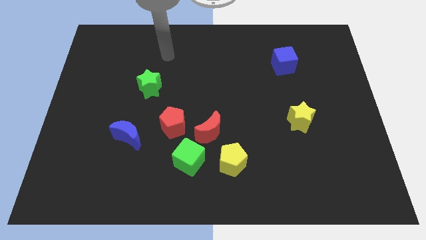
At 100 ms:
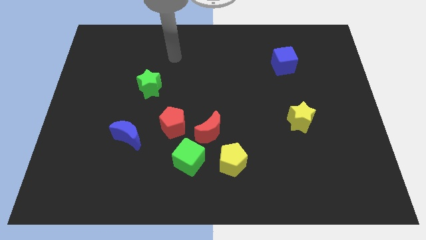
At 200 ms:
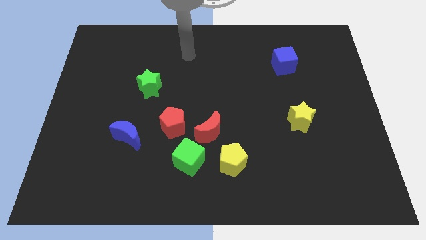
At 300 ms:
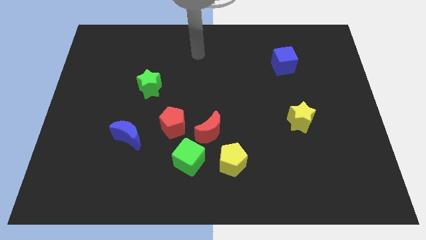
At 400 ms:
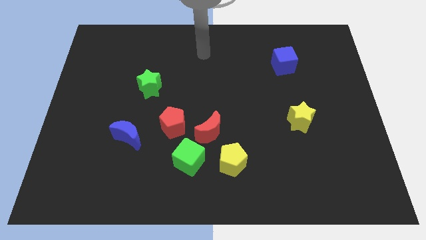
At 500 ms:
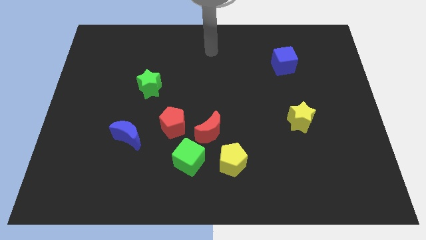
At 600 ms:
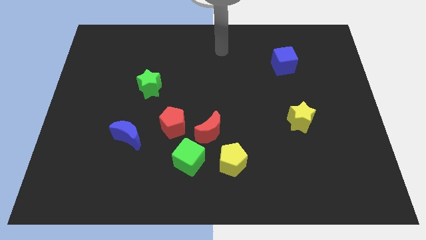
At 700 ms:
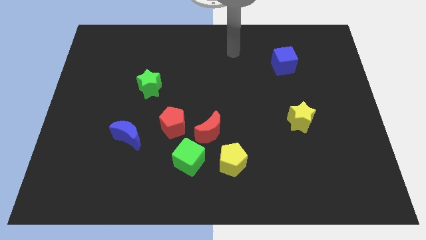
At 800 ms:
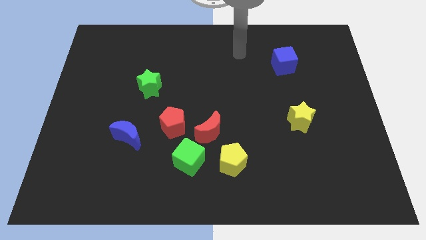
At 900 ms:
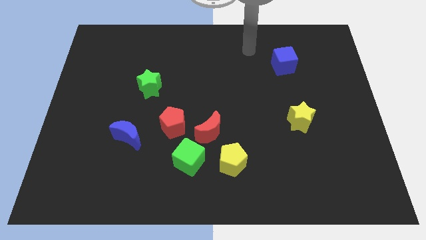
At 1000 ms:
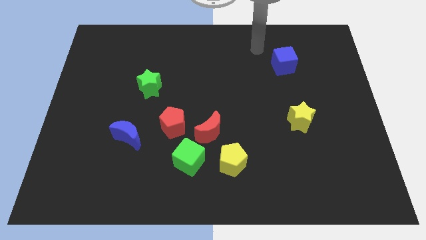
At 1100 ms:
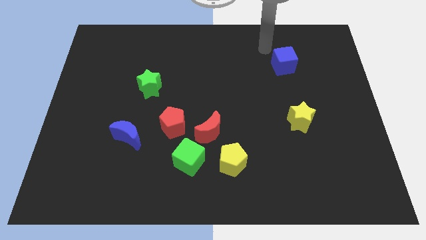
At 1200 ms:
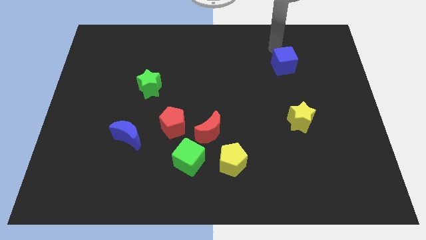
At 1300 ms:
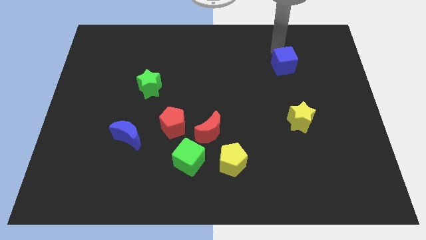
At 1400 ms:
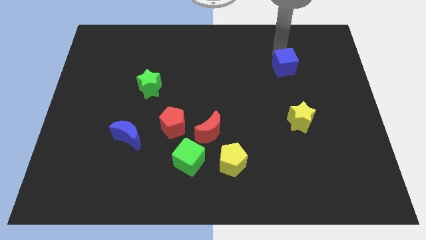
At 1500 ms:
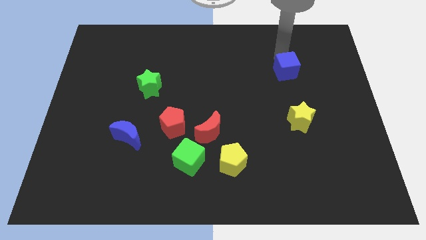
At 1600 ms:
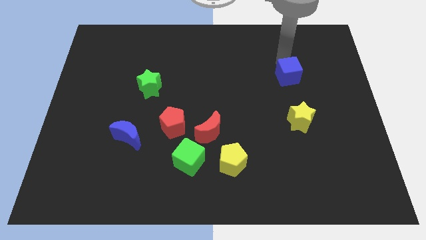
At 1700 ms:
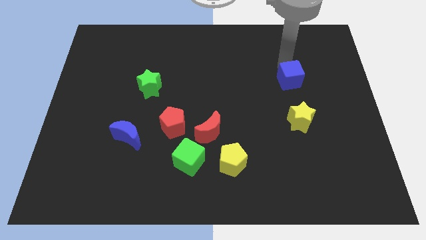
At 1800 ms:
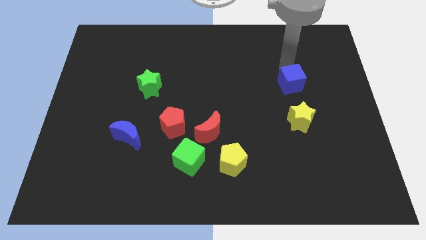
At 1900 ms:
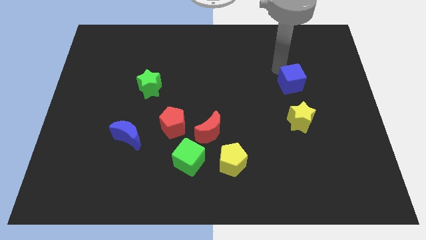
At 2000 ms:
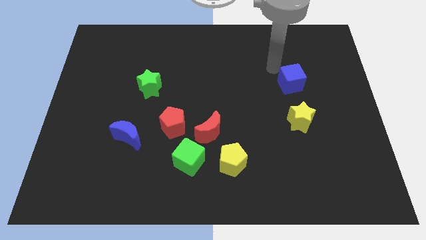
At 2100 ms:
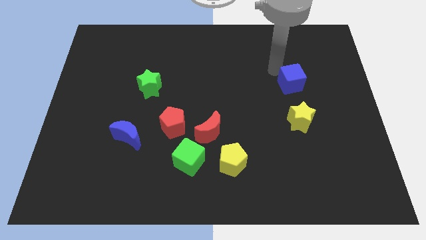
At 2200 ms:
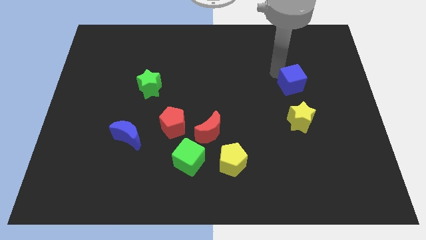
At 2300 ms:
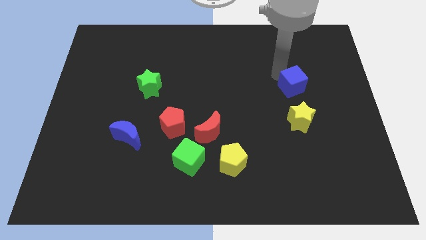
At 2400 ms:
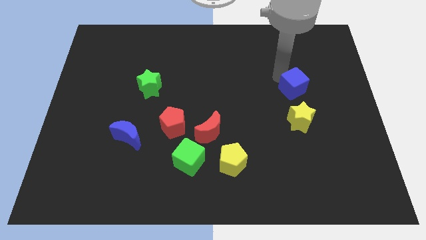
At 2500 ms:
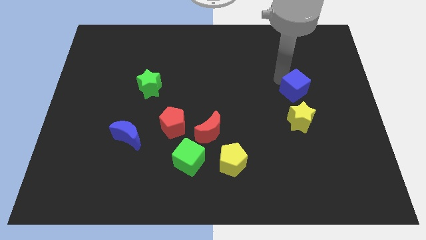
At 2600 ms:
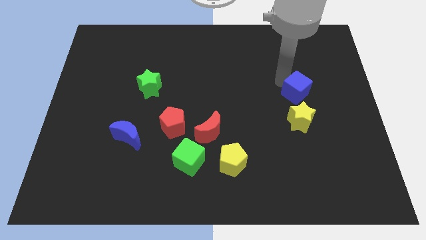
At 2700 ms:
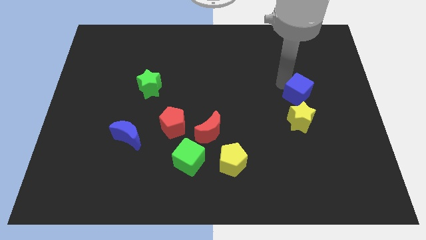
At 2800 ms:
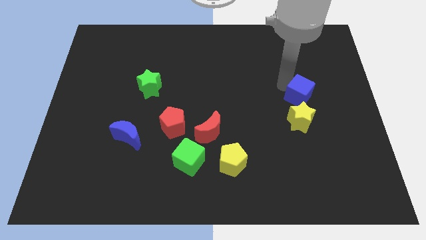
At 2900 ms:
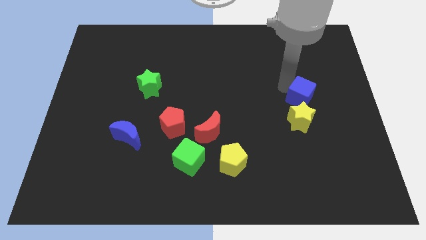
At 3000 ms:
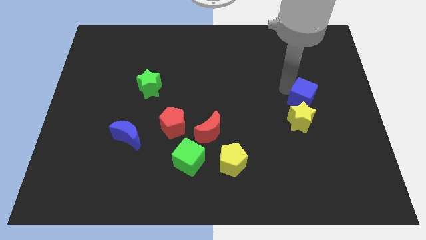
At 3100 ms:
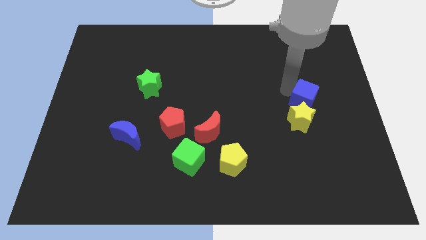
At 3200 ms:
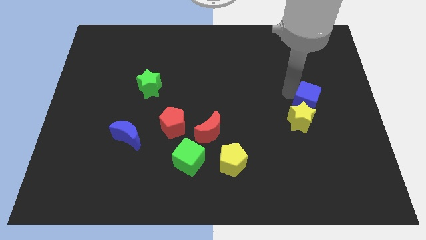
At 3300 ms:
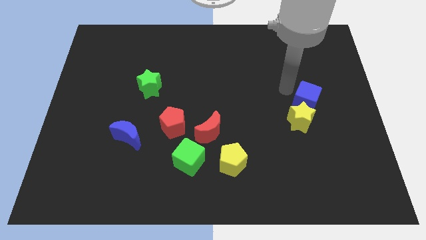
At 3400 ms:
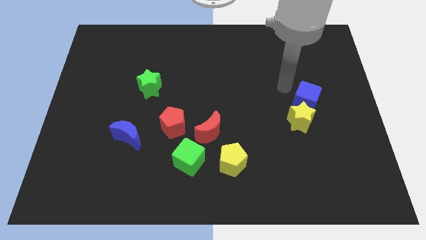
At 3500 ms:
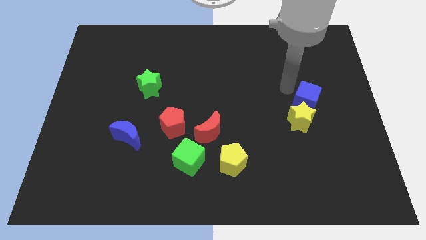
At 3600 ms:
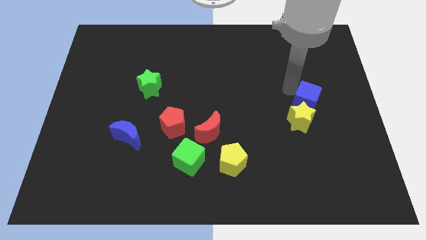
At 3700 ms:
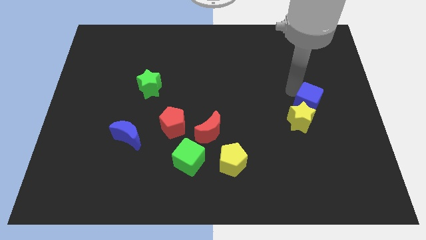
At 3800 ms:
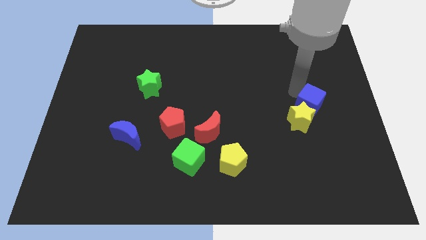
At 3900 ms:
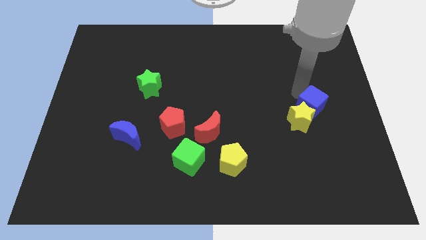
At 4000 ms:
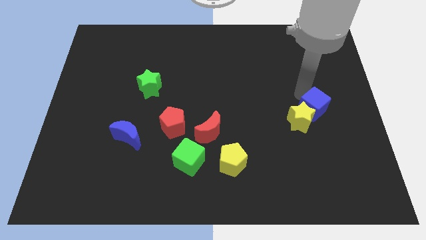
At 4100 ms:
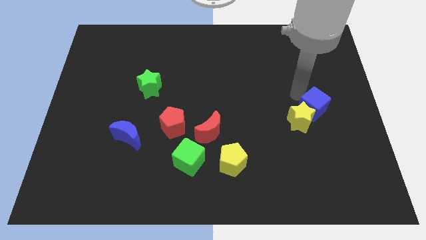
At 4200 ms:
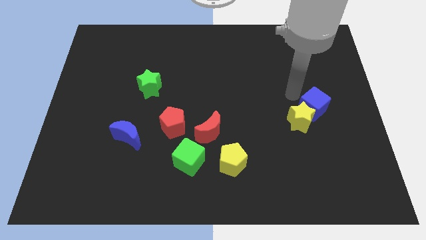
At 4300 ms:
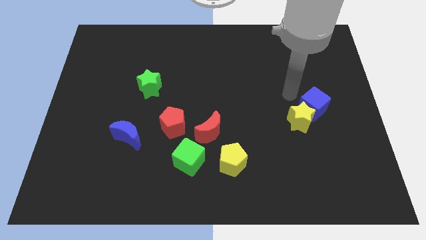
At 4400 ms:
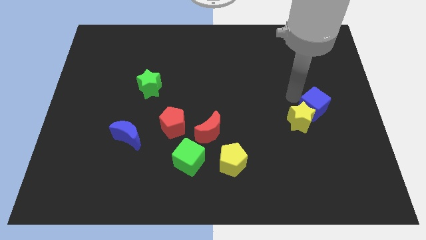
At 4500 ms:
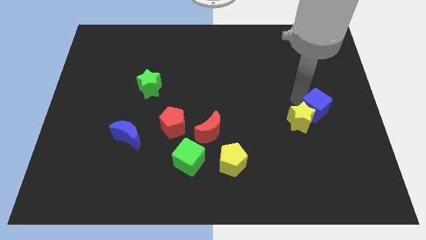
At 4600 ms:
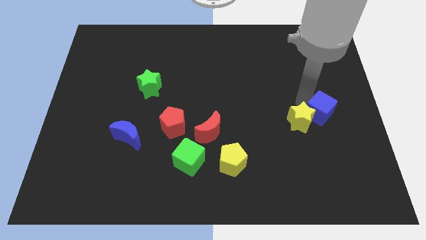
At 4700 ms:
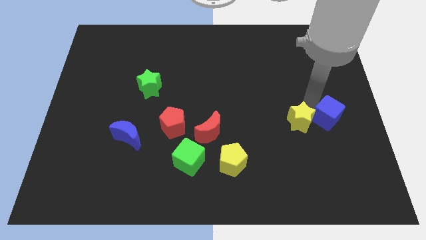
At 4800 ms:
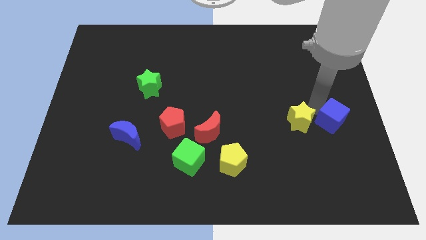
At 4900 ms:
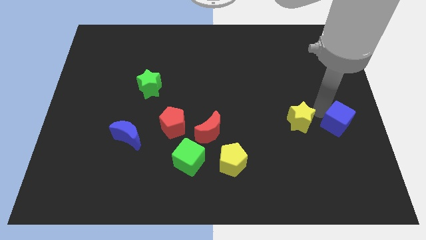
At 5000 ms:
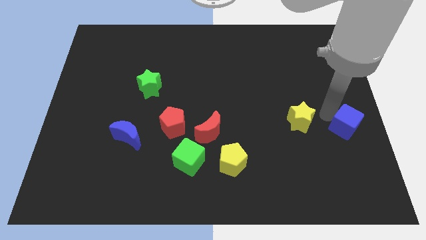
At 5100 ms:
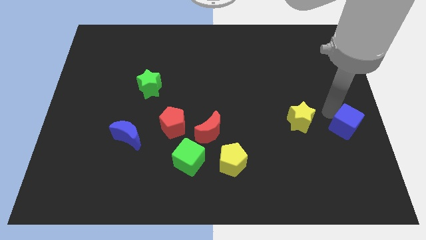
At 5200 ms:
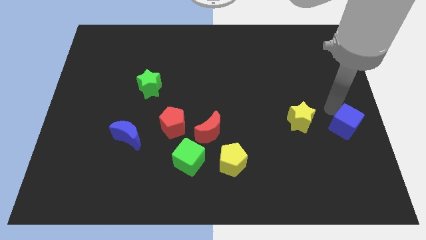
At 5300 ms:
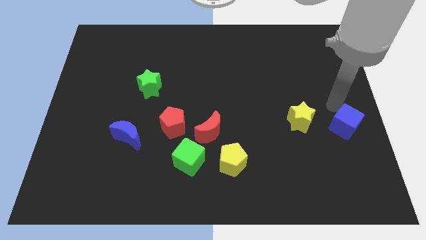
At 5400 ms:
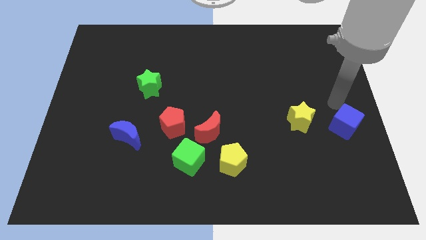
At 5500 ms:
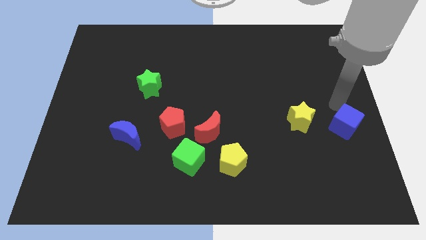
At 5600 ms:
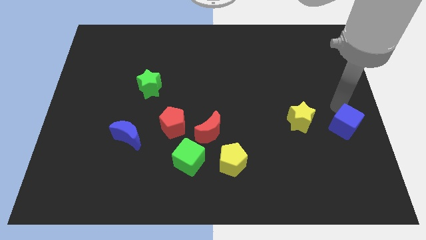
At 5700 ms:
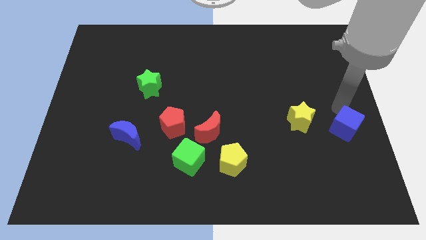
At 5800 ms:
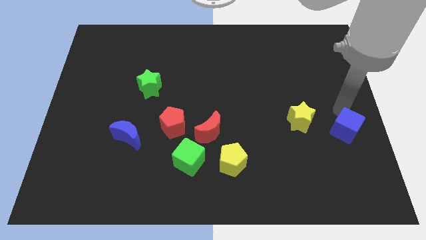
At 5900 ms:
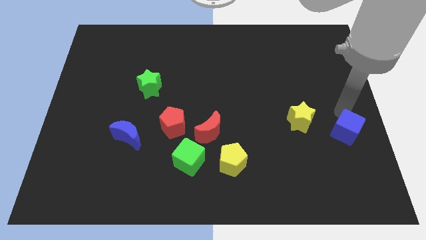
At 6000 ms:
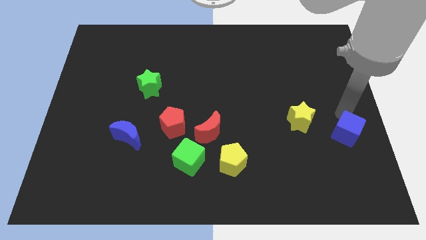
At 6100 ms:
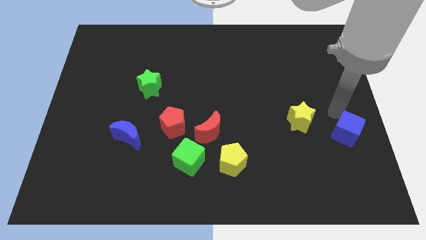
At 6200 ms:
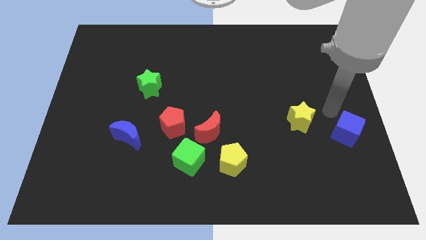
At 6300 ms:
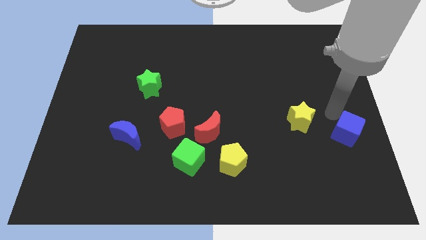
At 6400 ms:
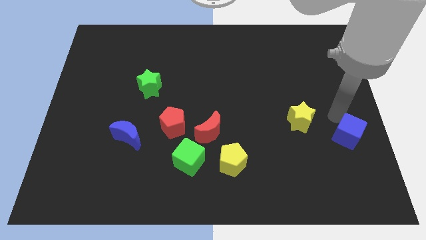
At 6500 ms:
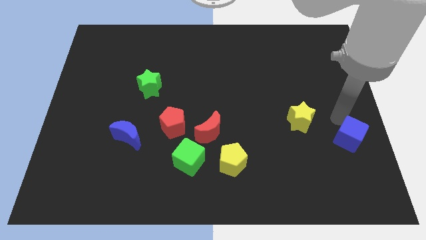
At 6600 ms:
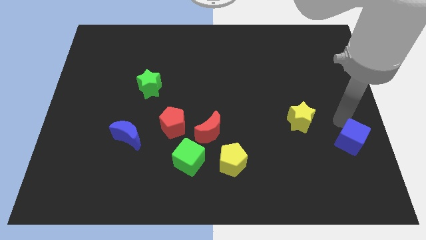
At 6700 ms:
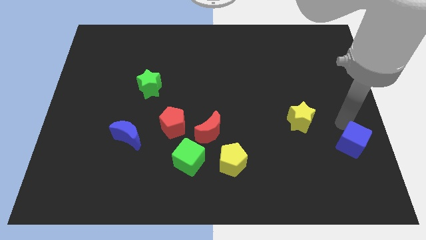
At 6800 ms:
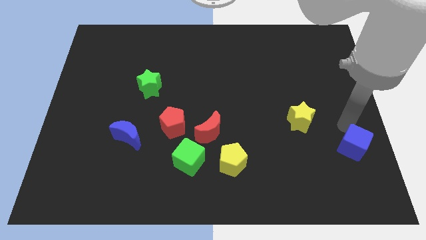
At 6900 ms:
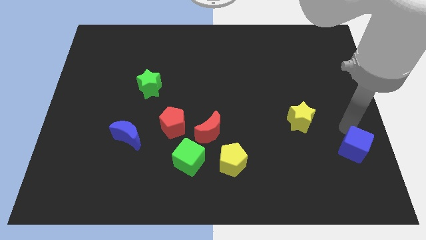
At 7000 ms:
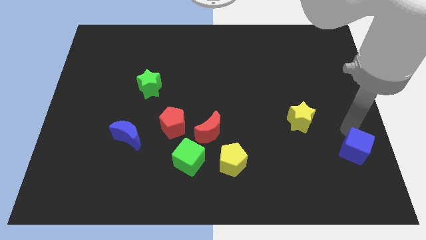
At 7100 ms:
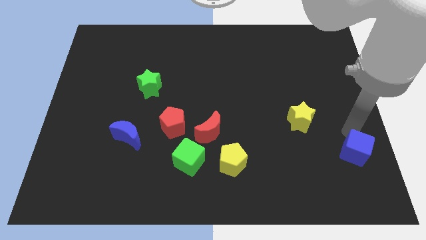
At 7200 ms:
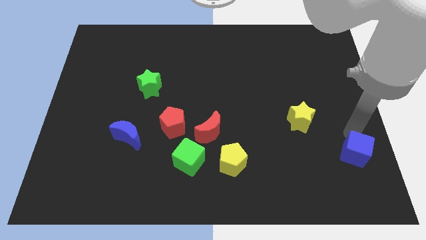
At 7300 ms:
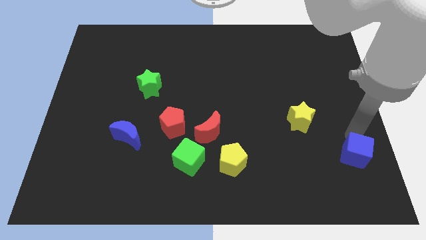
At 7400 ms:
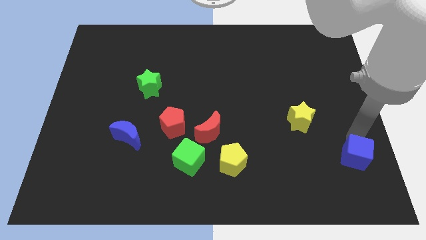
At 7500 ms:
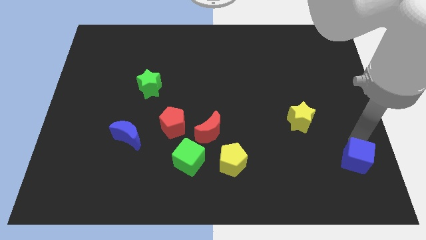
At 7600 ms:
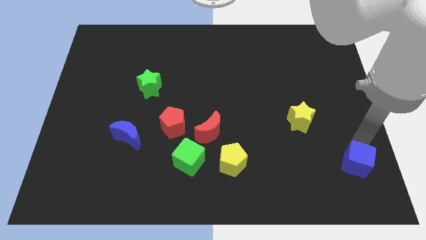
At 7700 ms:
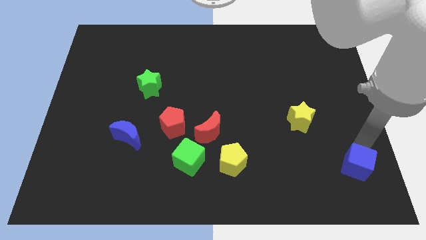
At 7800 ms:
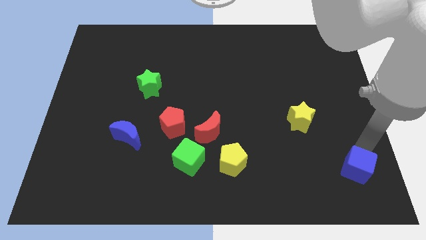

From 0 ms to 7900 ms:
move the blue cube to the bottom right corner
